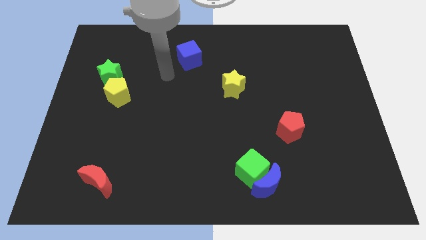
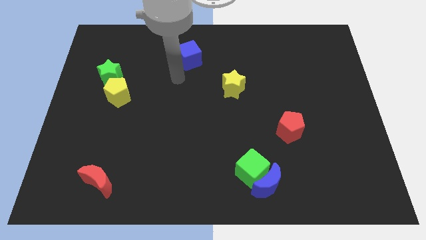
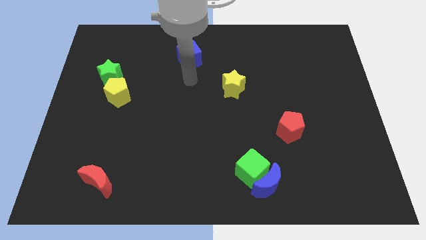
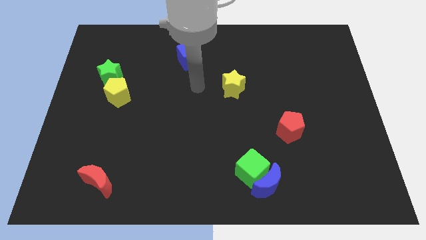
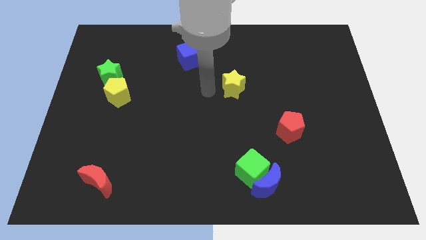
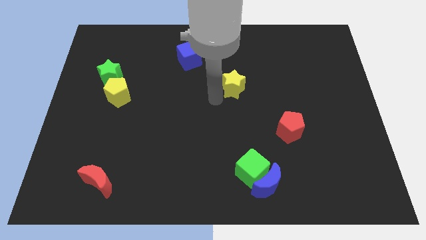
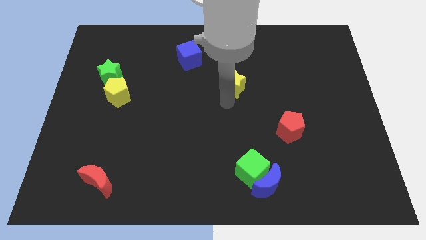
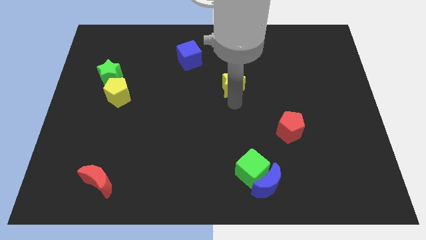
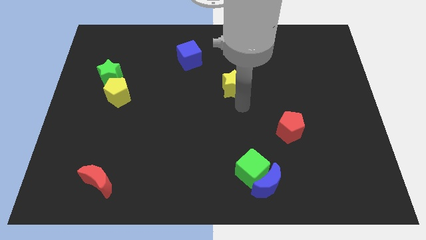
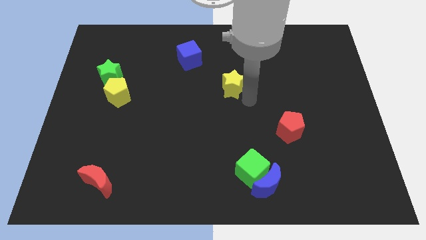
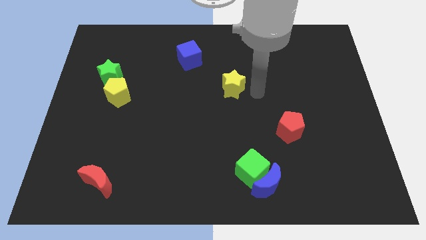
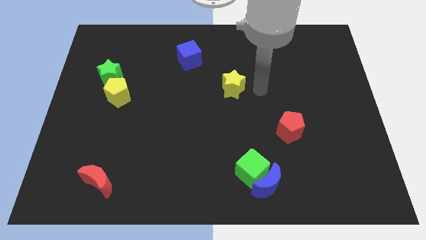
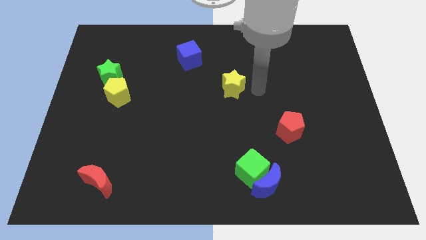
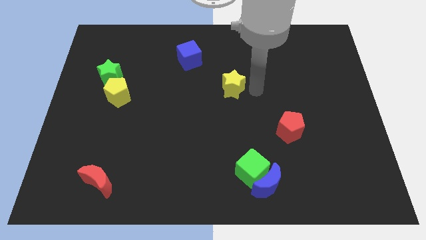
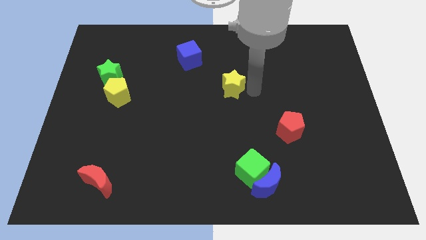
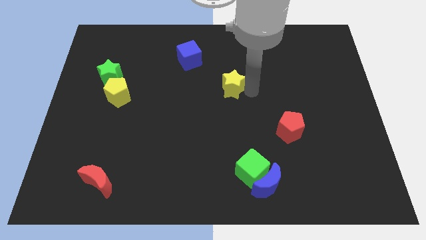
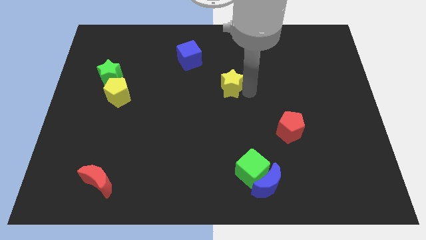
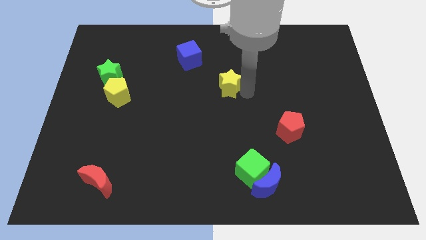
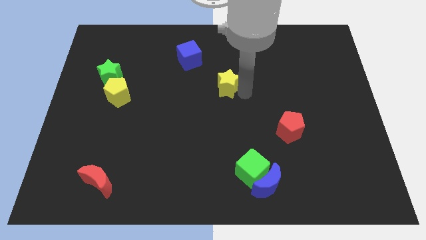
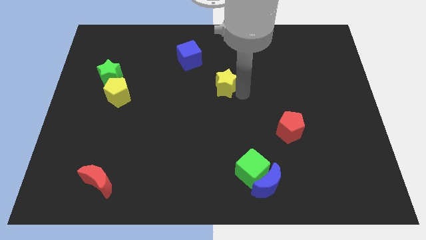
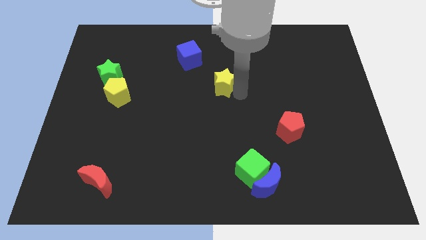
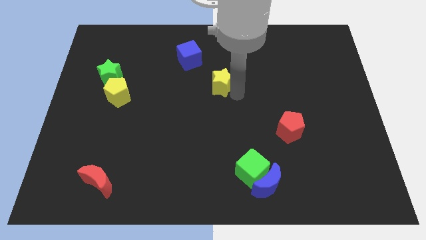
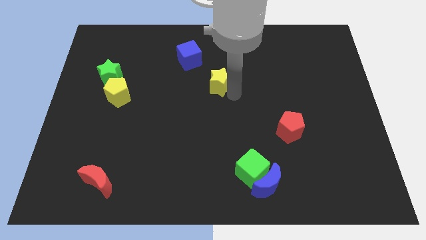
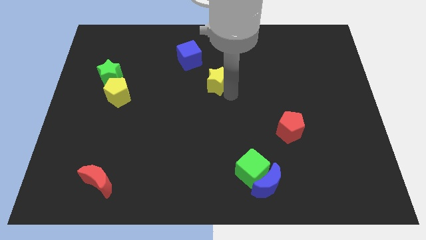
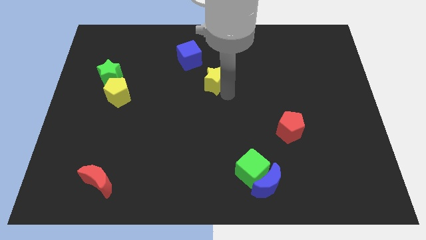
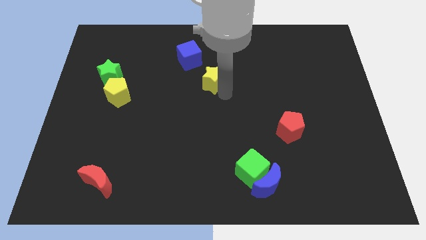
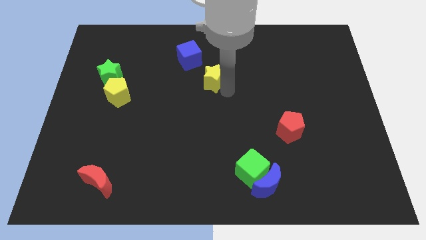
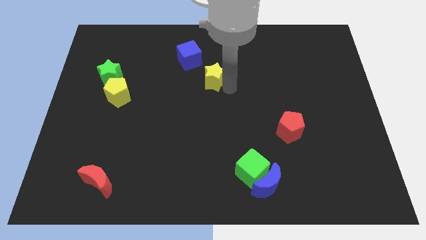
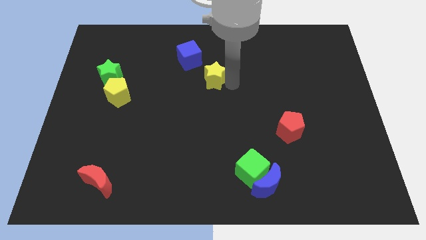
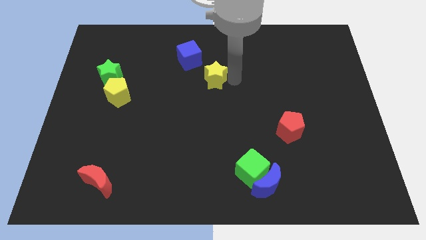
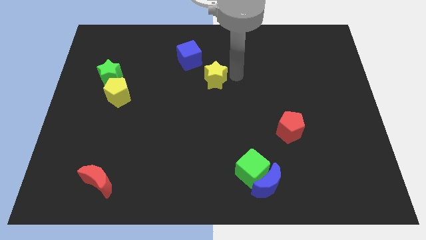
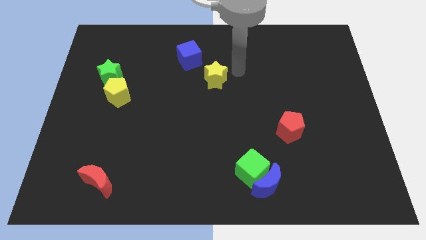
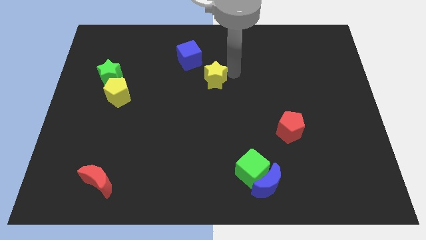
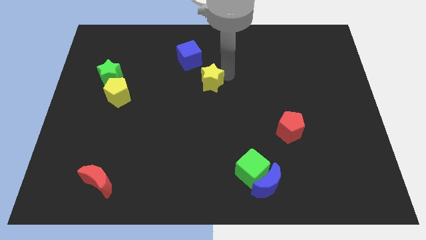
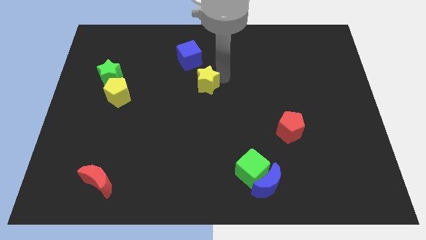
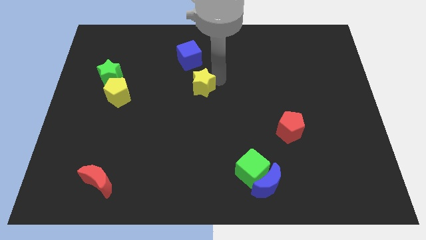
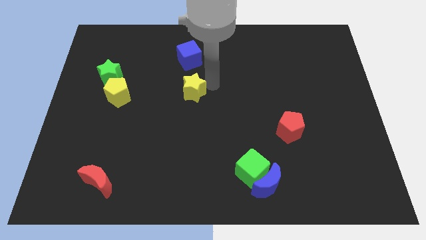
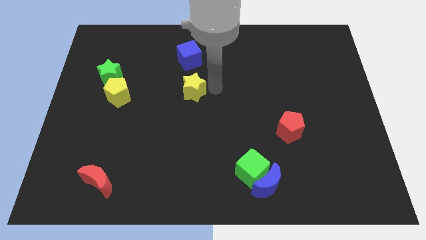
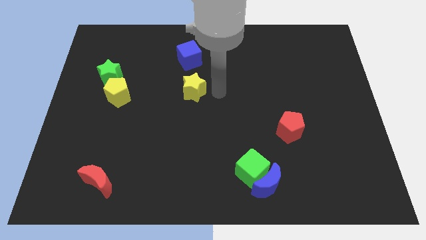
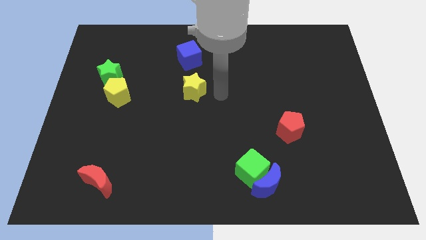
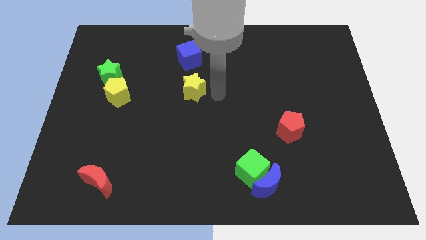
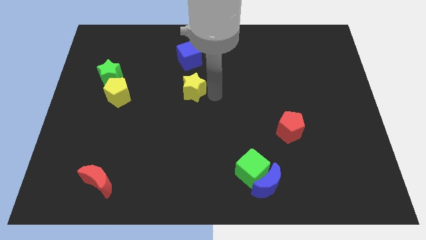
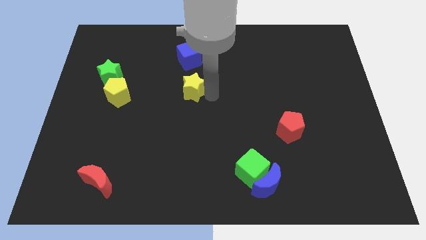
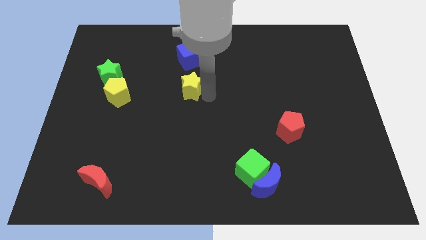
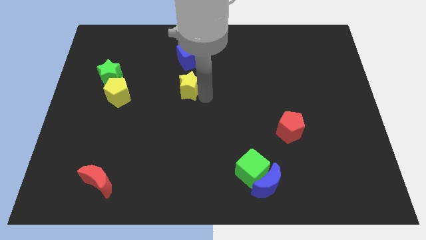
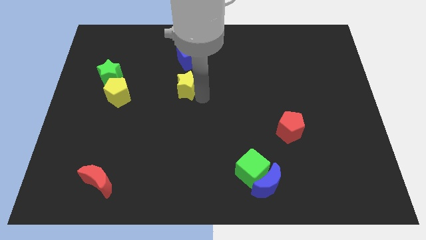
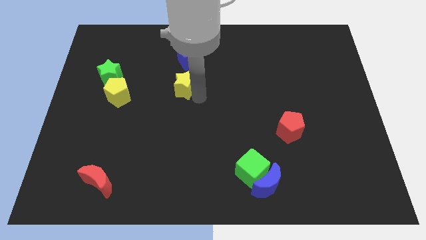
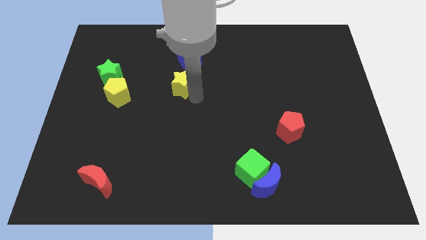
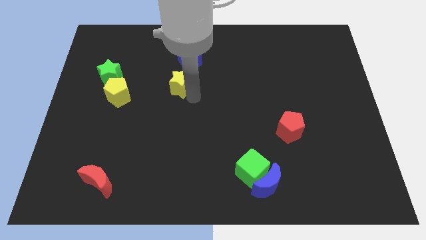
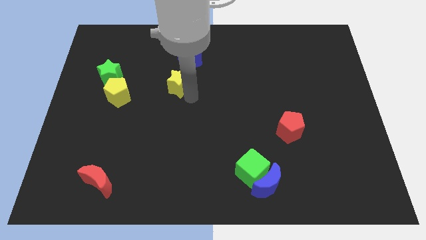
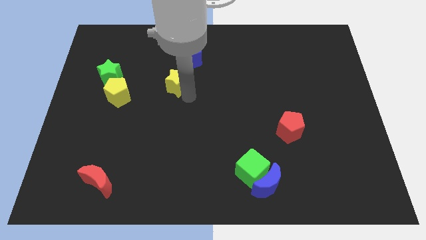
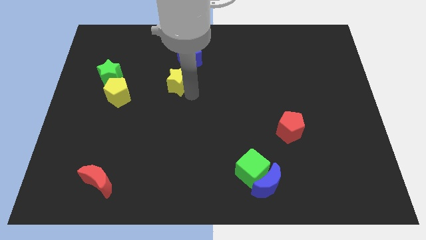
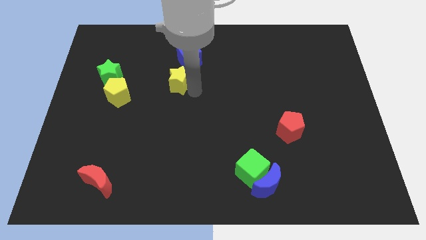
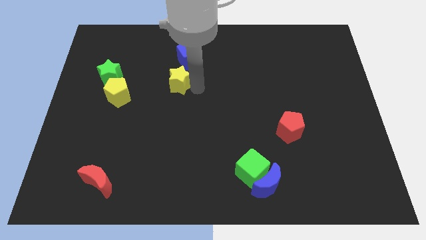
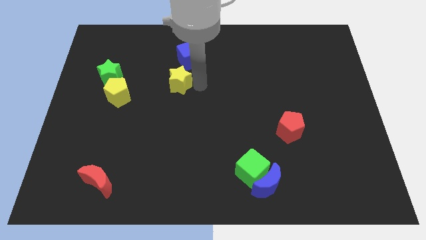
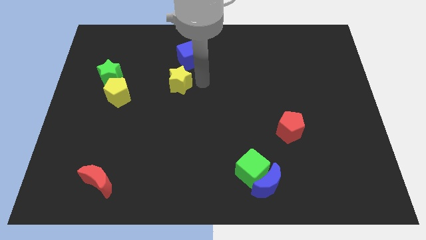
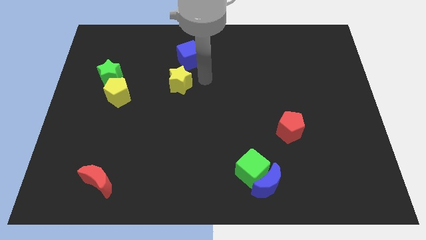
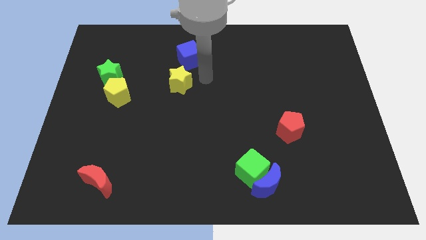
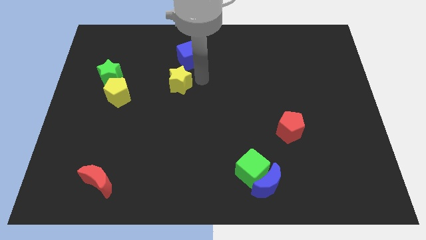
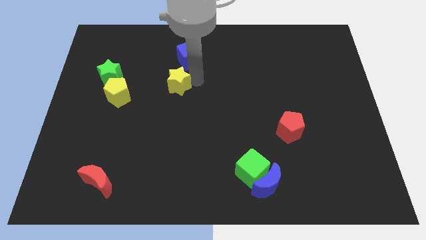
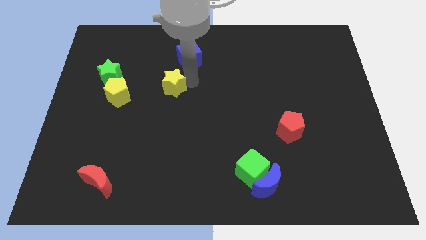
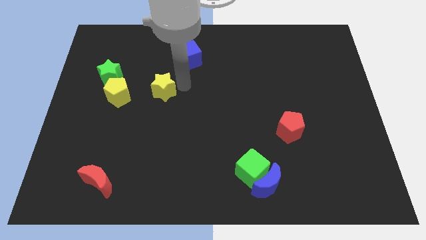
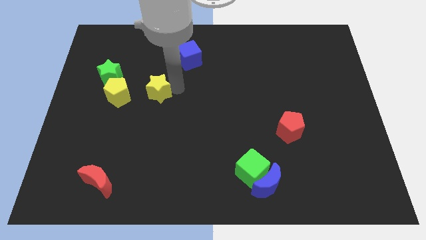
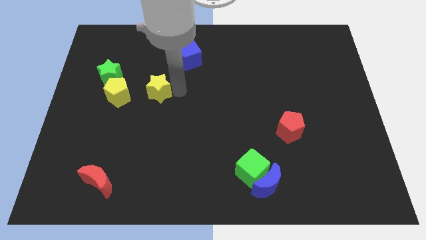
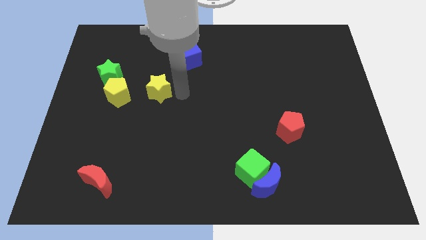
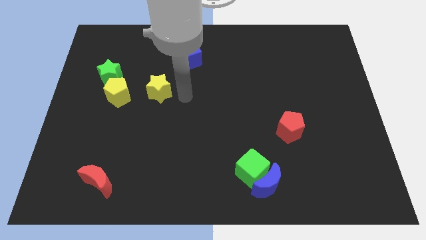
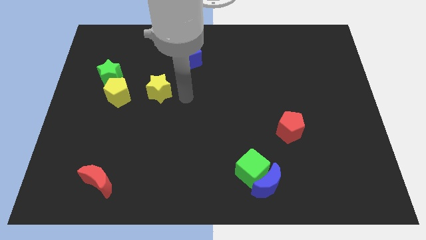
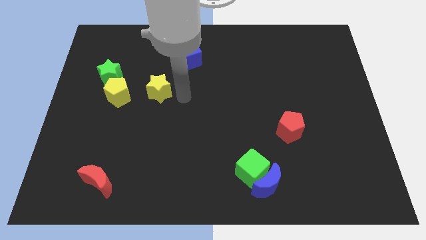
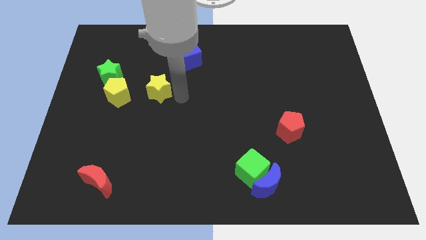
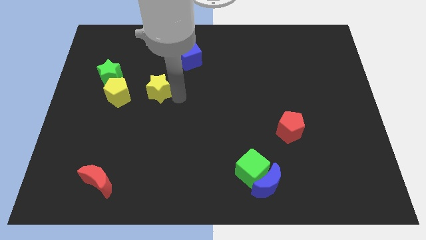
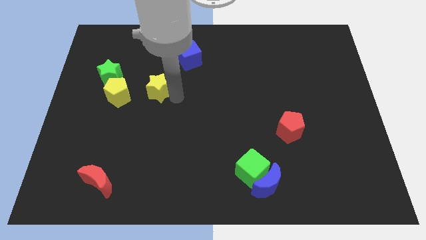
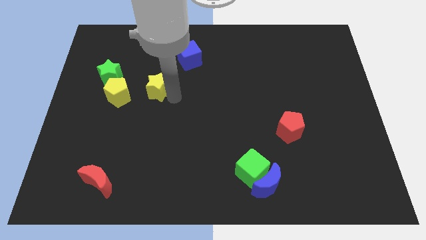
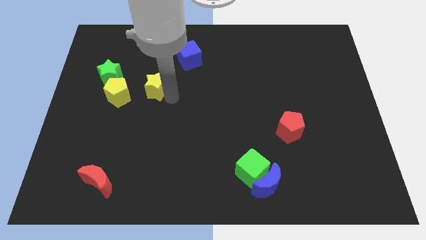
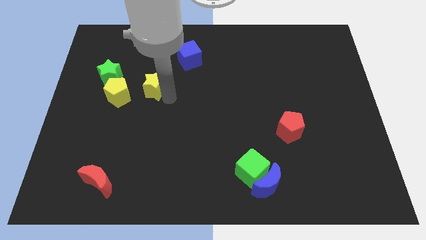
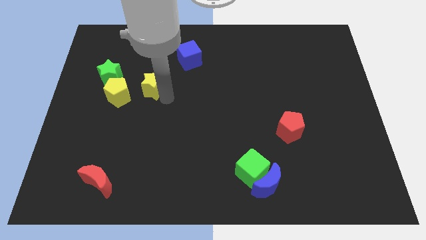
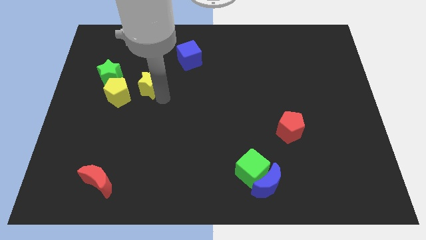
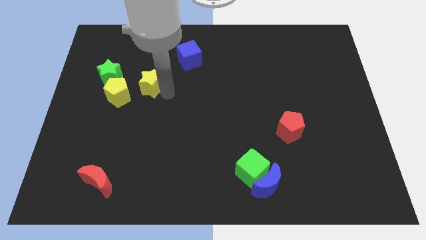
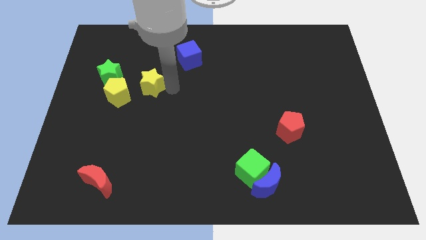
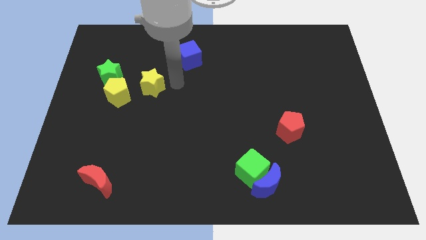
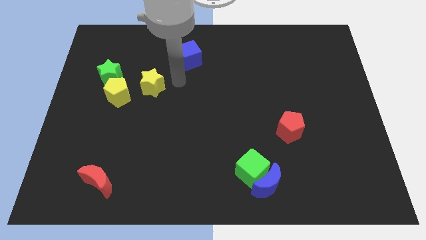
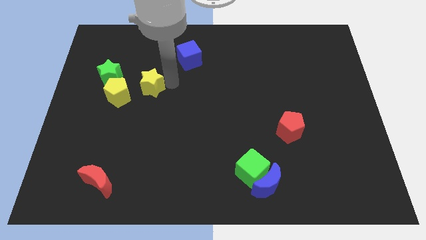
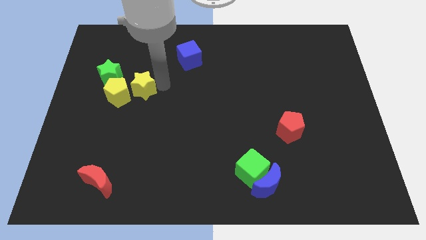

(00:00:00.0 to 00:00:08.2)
push the yellow star next to the yellow pentagon
